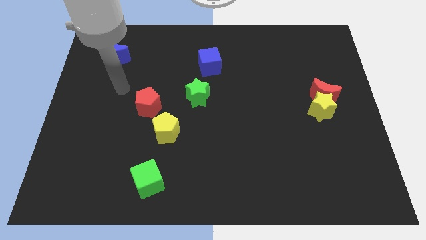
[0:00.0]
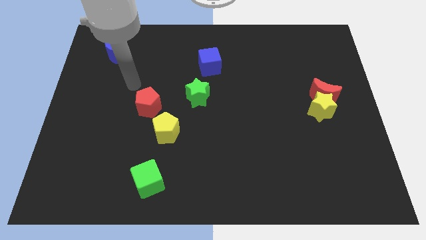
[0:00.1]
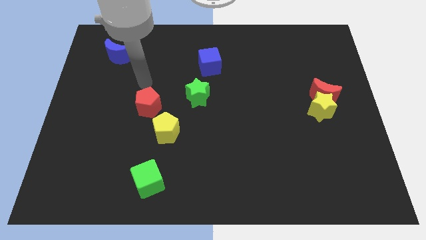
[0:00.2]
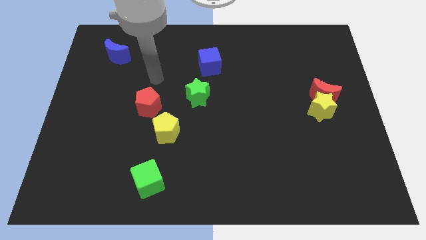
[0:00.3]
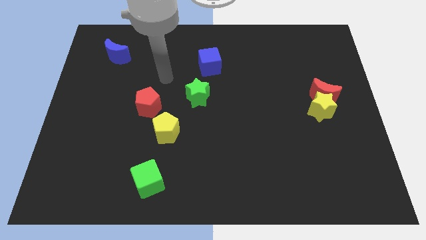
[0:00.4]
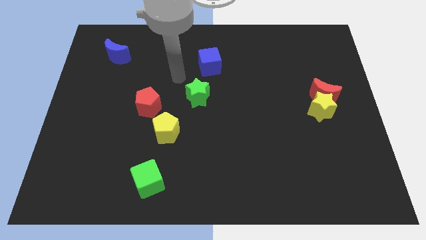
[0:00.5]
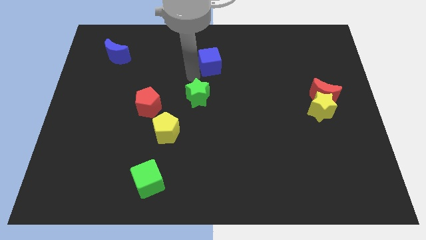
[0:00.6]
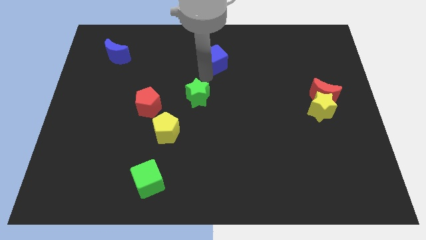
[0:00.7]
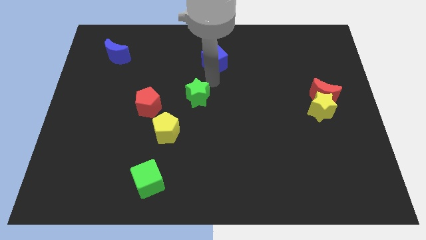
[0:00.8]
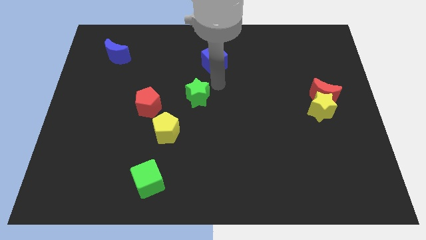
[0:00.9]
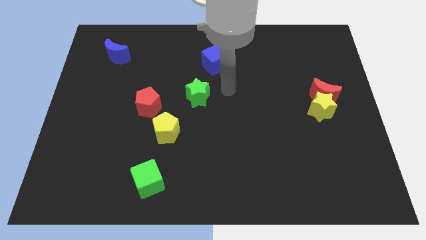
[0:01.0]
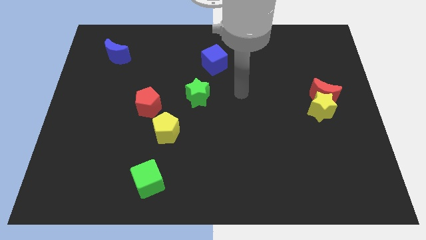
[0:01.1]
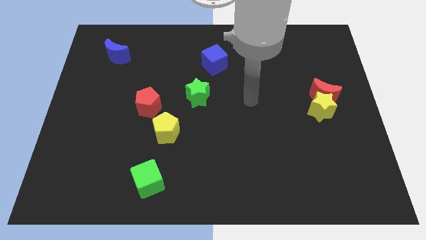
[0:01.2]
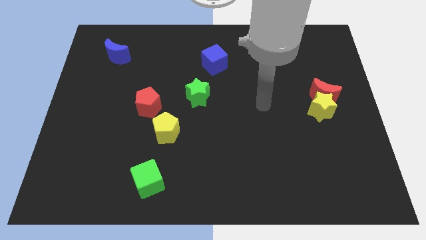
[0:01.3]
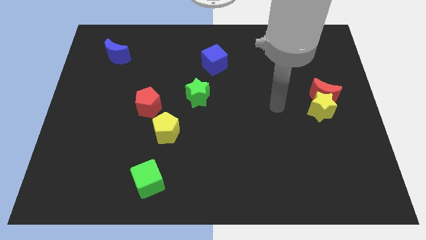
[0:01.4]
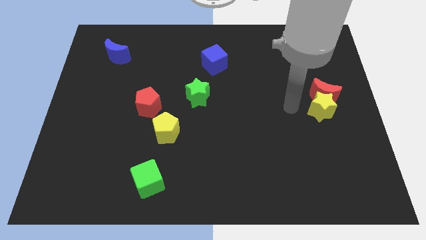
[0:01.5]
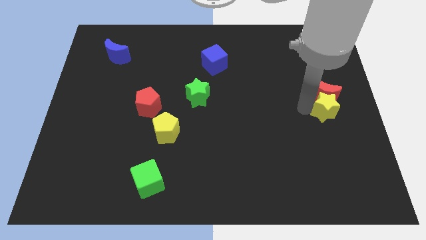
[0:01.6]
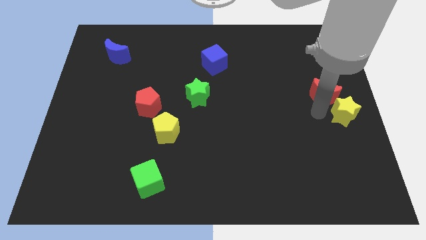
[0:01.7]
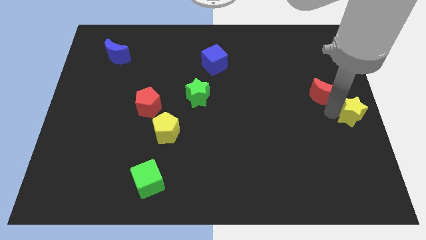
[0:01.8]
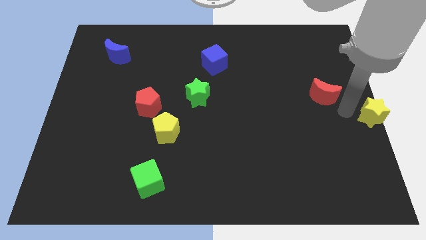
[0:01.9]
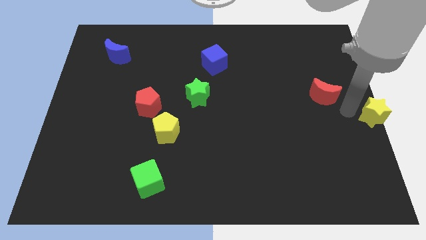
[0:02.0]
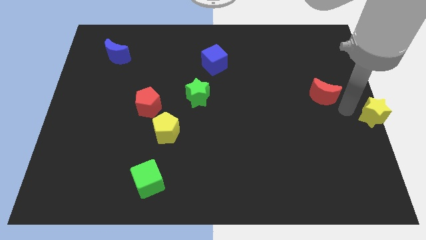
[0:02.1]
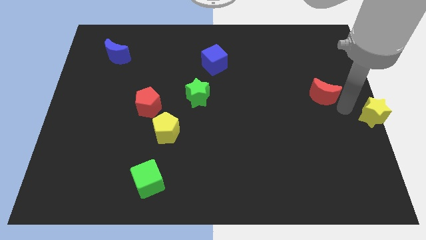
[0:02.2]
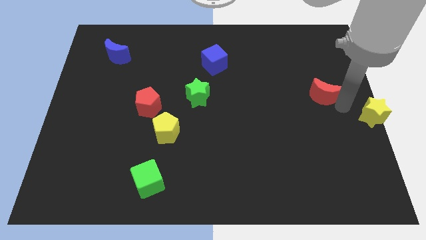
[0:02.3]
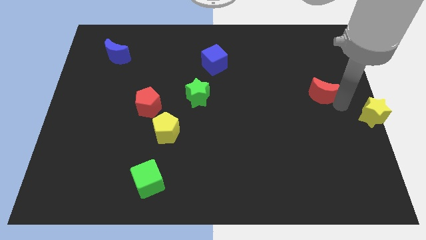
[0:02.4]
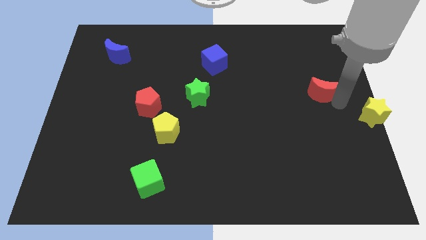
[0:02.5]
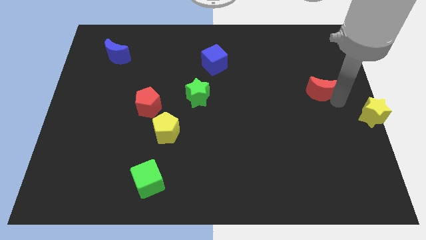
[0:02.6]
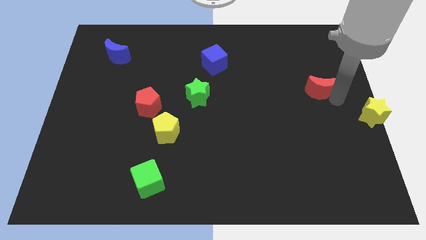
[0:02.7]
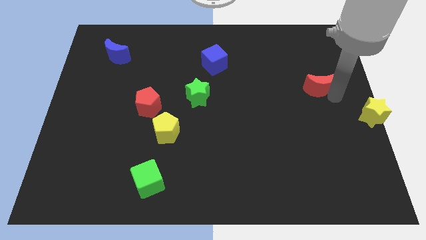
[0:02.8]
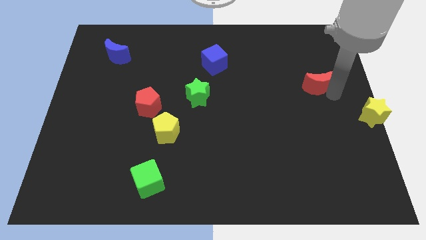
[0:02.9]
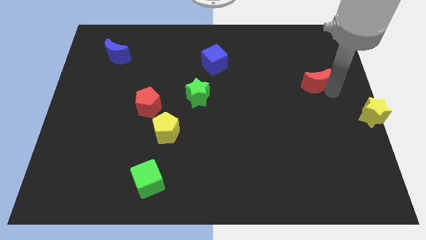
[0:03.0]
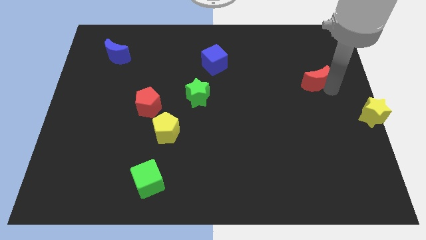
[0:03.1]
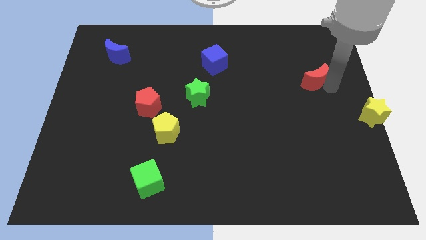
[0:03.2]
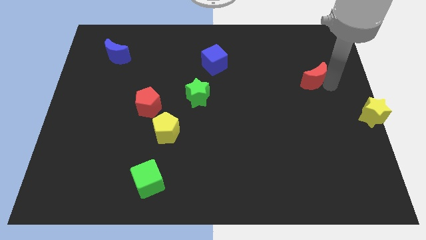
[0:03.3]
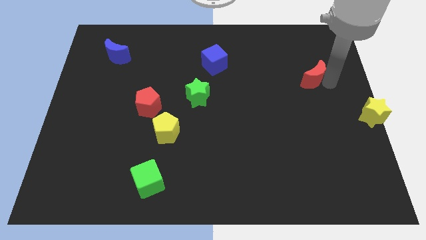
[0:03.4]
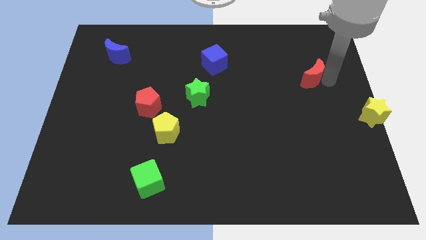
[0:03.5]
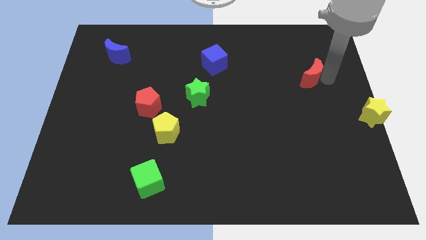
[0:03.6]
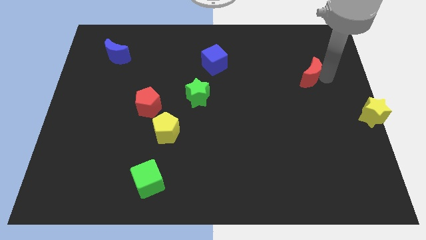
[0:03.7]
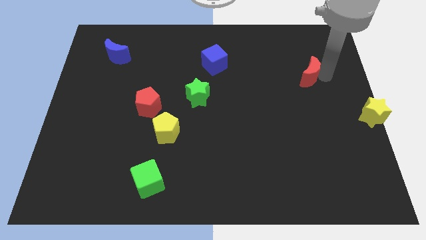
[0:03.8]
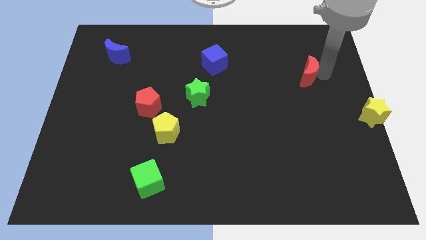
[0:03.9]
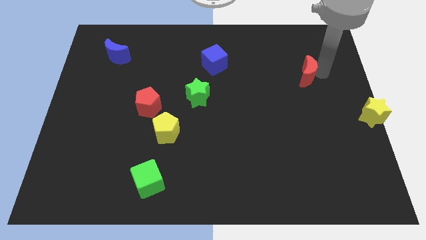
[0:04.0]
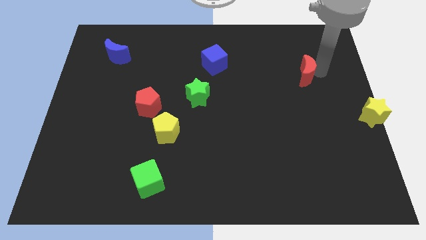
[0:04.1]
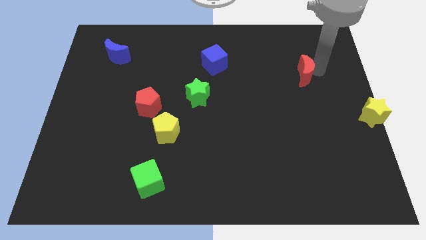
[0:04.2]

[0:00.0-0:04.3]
push the red moon a little bit up and to the left diagonally

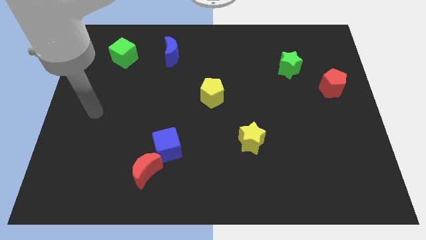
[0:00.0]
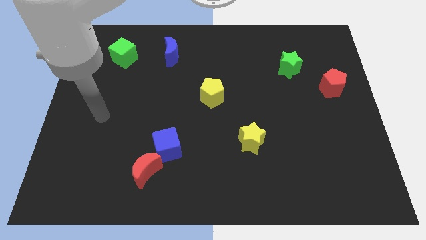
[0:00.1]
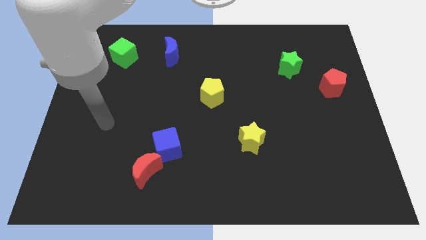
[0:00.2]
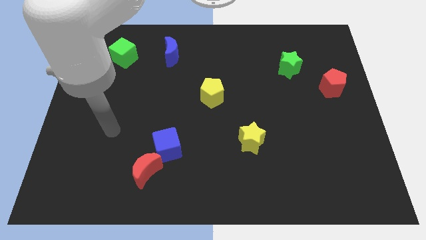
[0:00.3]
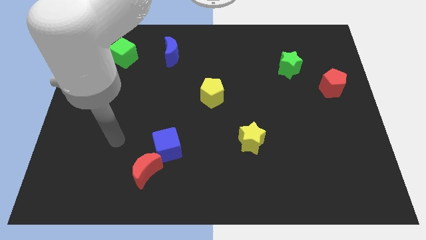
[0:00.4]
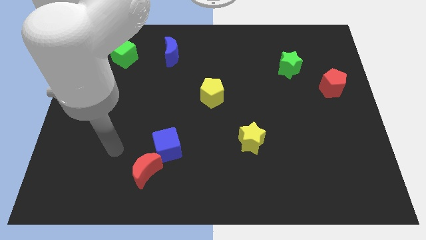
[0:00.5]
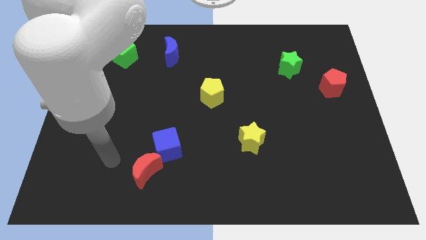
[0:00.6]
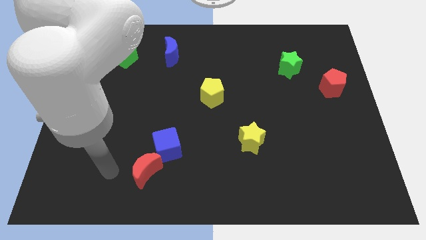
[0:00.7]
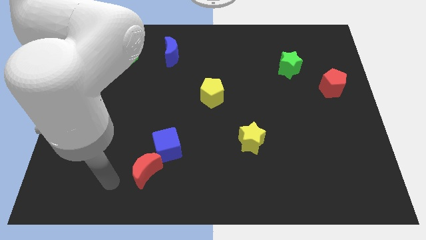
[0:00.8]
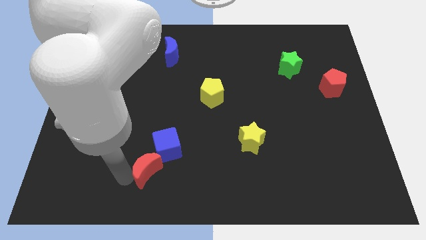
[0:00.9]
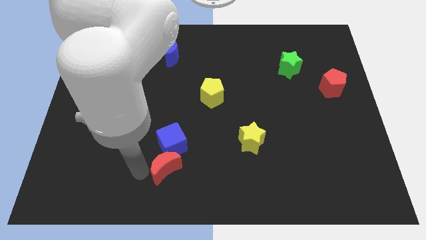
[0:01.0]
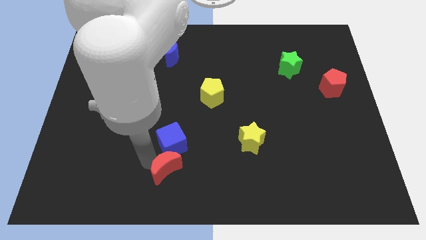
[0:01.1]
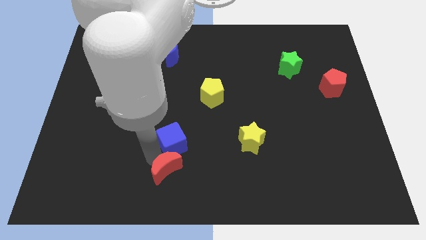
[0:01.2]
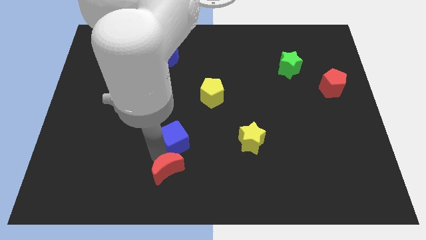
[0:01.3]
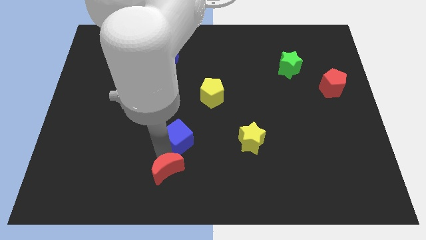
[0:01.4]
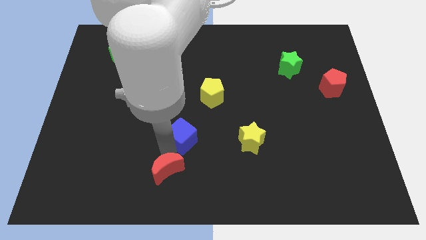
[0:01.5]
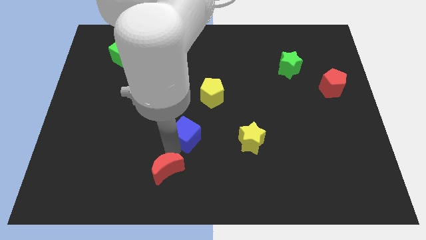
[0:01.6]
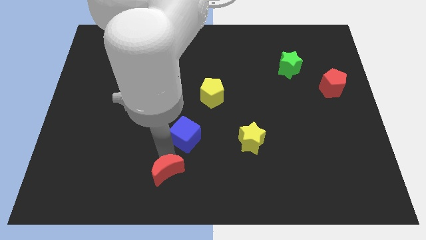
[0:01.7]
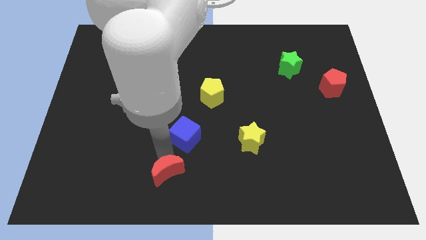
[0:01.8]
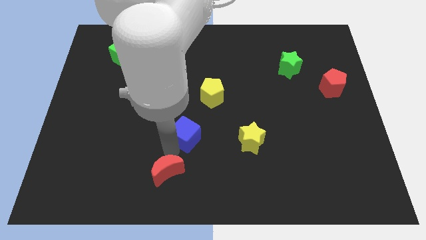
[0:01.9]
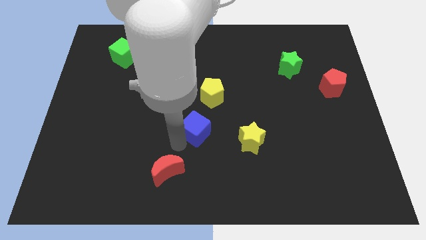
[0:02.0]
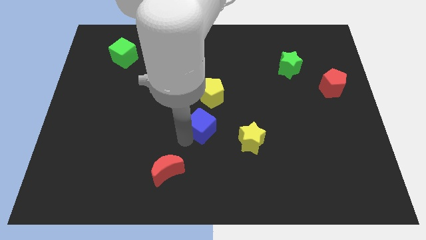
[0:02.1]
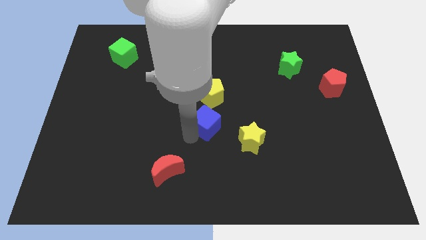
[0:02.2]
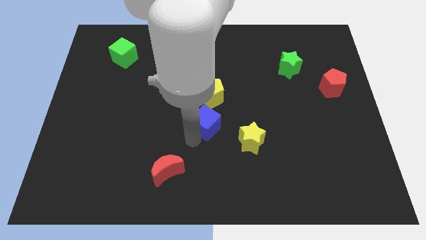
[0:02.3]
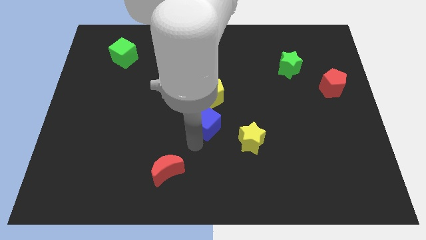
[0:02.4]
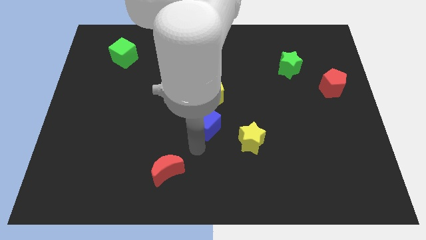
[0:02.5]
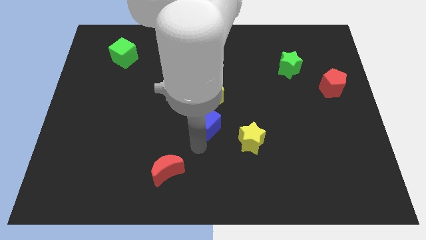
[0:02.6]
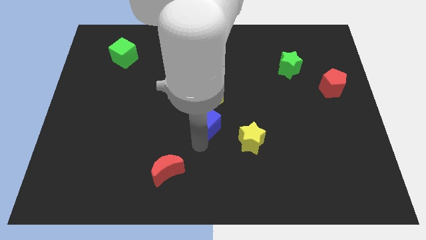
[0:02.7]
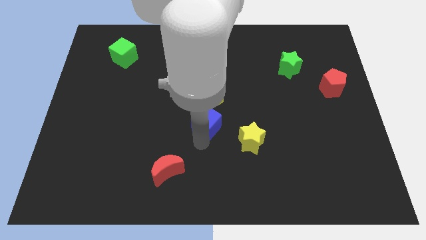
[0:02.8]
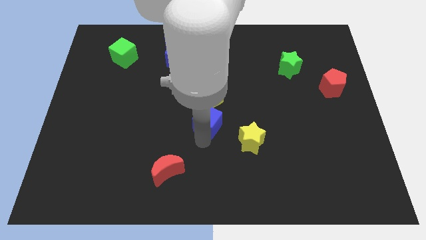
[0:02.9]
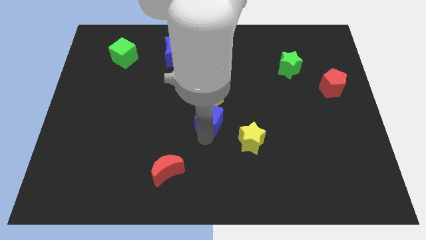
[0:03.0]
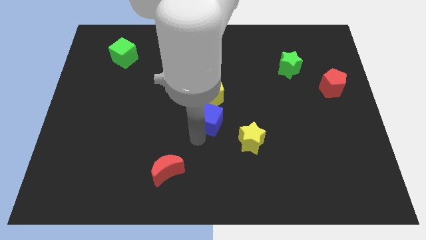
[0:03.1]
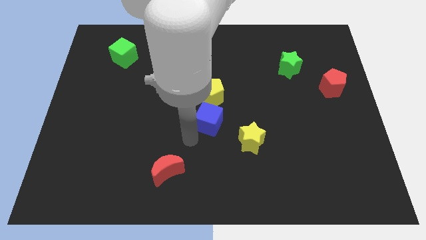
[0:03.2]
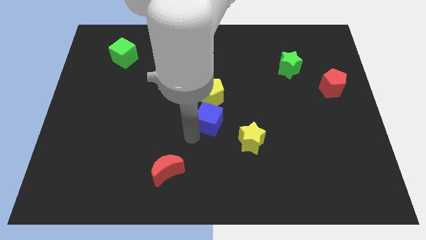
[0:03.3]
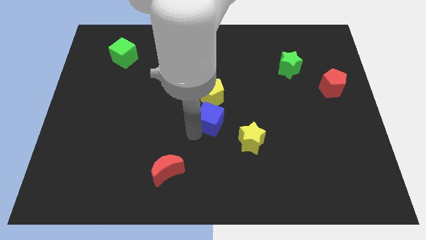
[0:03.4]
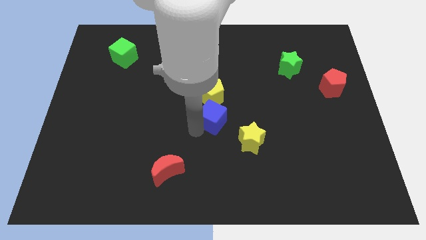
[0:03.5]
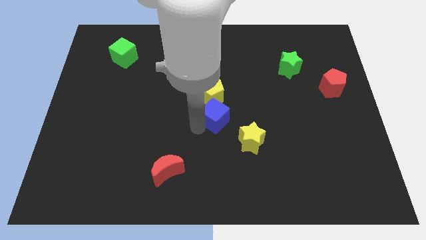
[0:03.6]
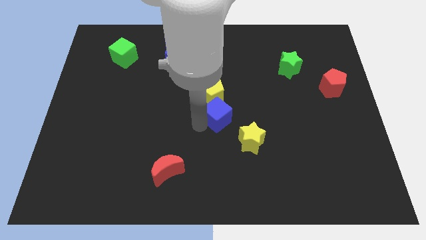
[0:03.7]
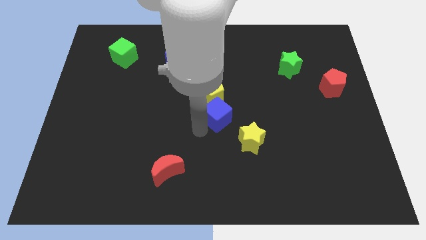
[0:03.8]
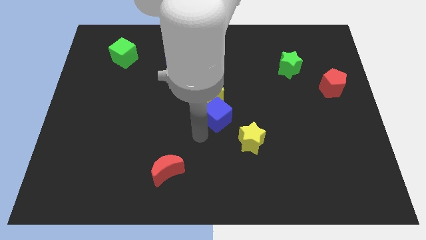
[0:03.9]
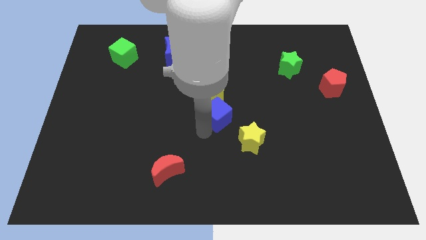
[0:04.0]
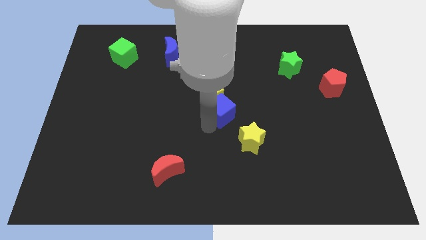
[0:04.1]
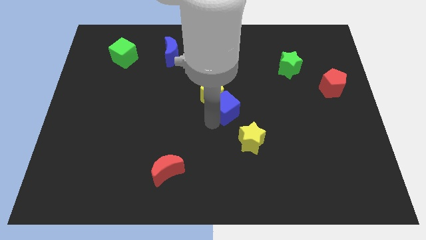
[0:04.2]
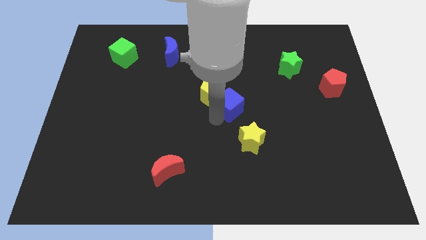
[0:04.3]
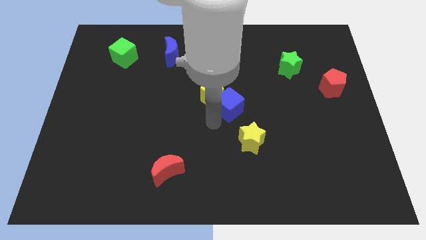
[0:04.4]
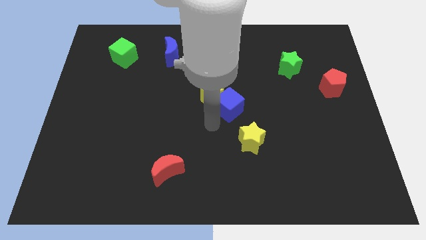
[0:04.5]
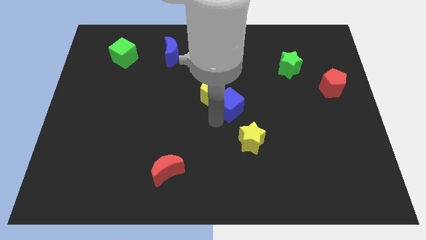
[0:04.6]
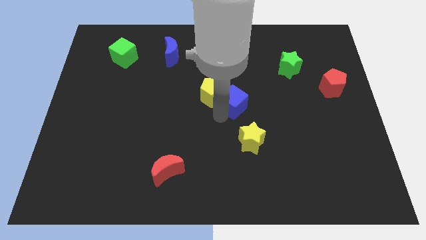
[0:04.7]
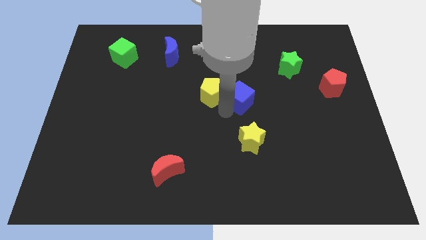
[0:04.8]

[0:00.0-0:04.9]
move the blue cube diagonally upwards and to the right
